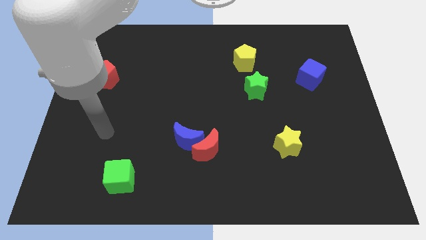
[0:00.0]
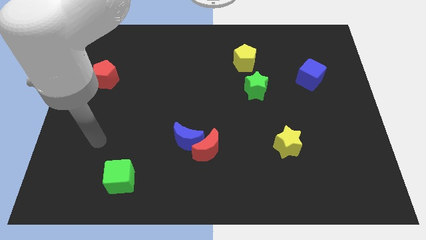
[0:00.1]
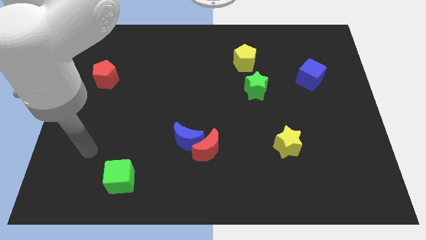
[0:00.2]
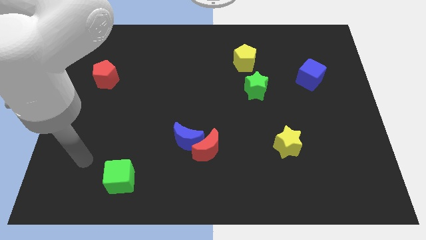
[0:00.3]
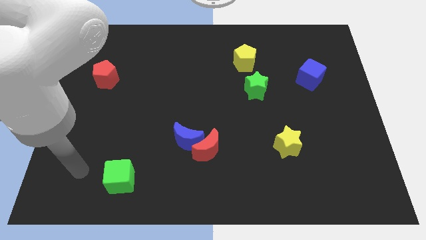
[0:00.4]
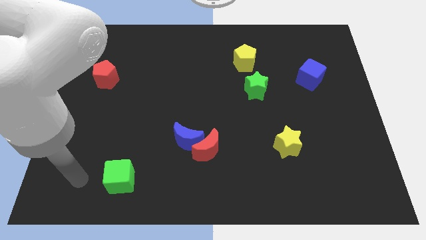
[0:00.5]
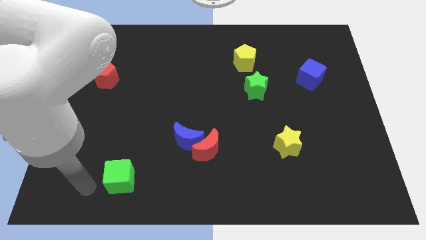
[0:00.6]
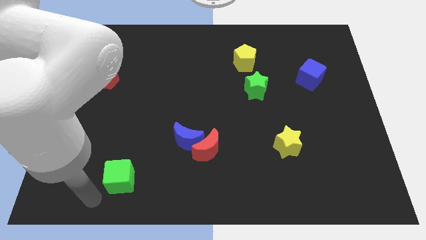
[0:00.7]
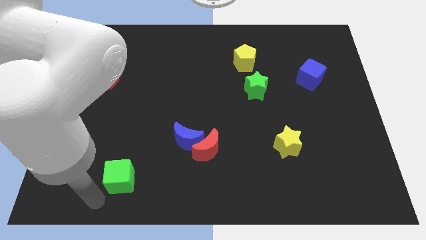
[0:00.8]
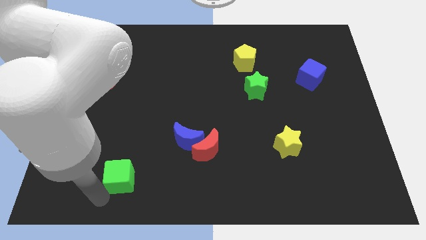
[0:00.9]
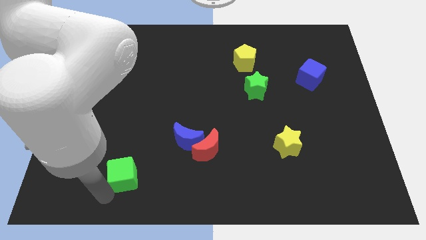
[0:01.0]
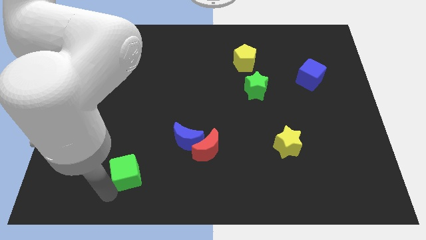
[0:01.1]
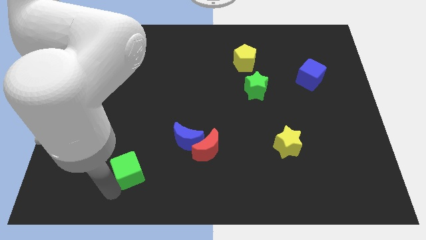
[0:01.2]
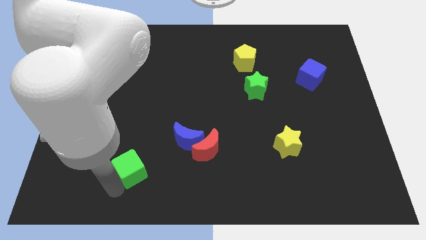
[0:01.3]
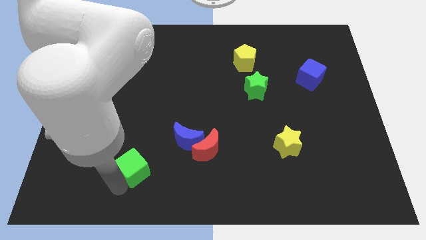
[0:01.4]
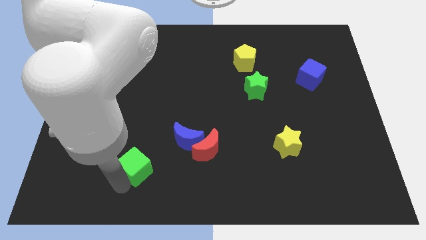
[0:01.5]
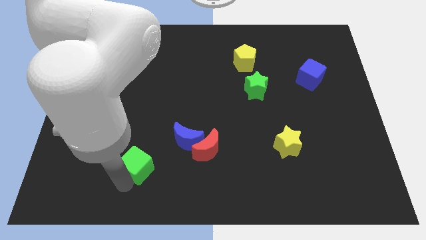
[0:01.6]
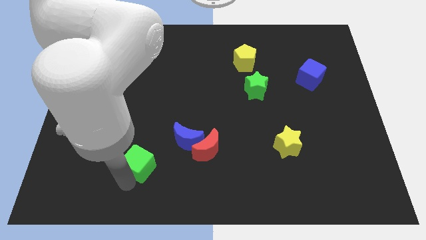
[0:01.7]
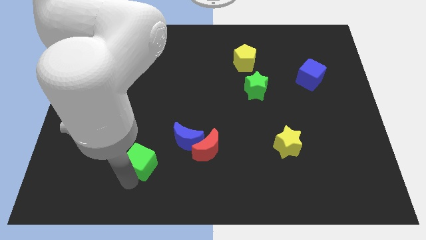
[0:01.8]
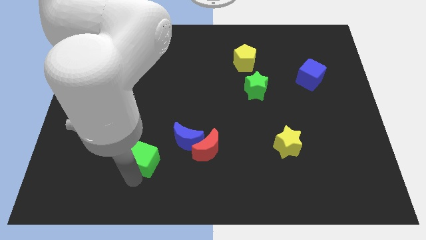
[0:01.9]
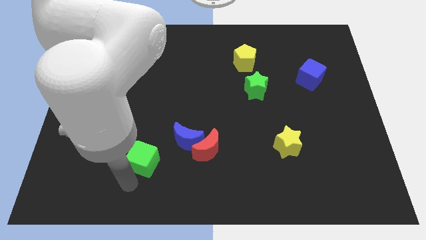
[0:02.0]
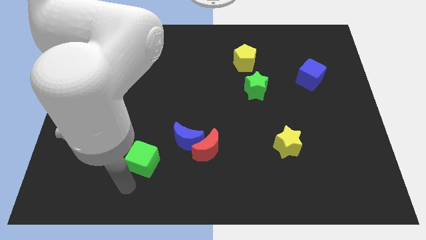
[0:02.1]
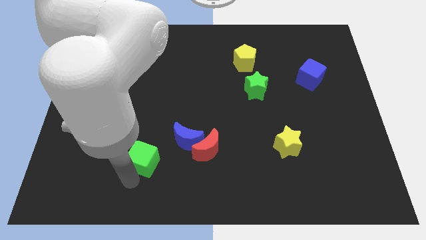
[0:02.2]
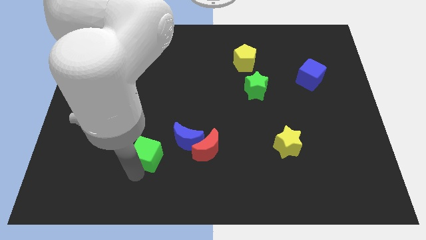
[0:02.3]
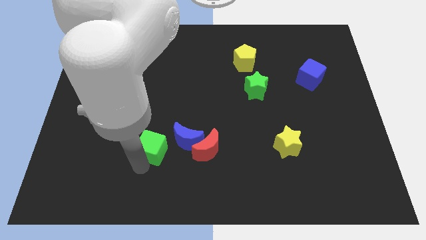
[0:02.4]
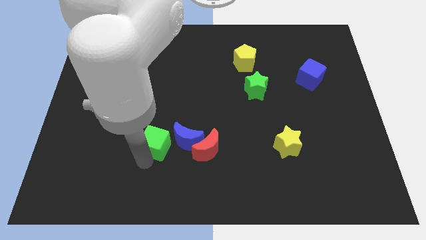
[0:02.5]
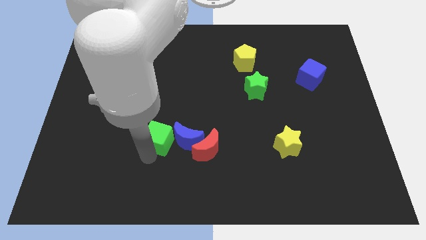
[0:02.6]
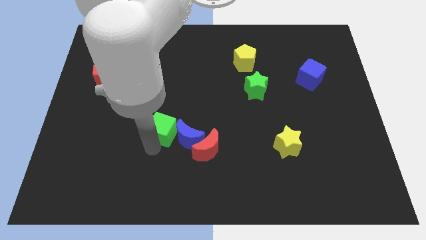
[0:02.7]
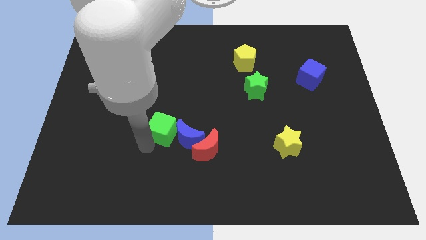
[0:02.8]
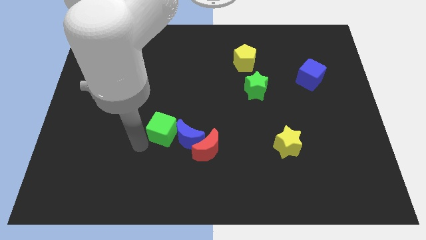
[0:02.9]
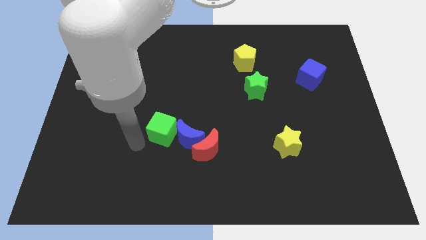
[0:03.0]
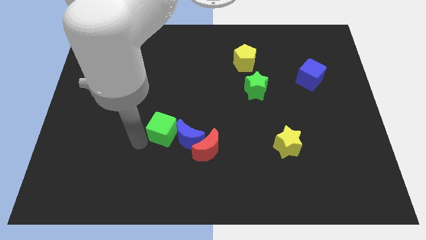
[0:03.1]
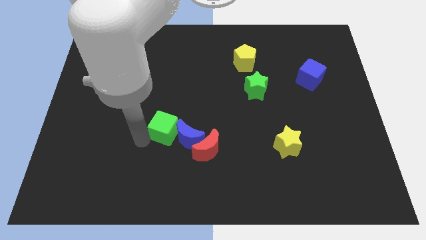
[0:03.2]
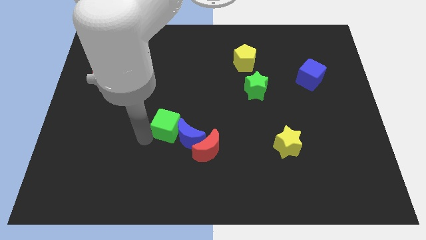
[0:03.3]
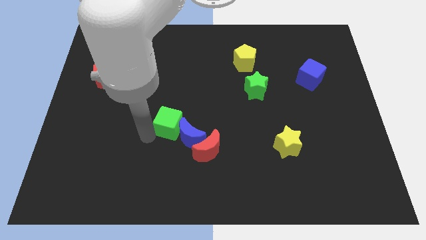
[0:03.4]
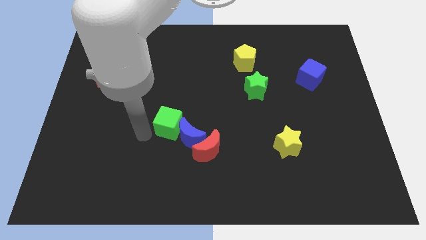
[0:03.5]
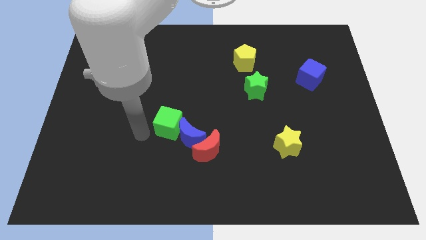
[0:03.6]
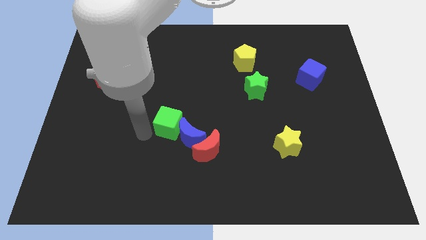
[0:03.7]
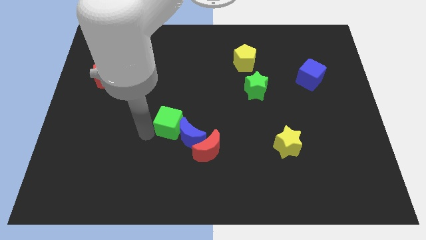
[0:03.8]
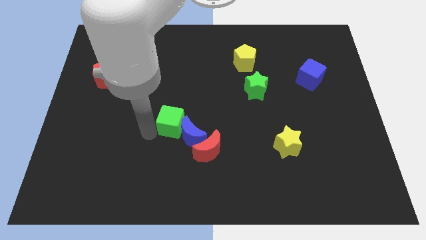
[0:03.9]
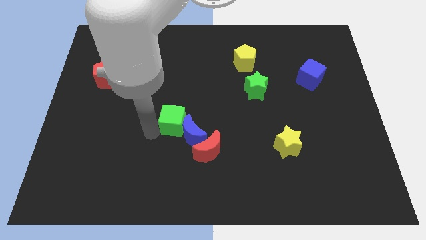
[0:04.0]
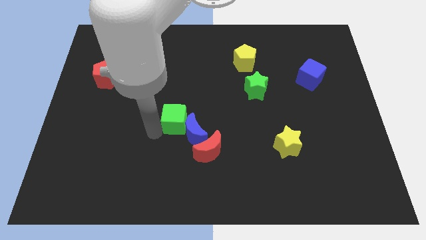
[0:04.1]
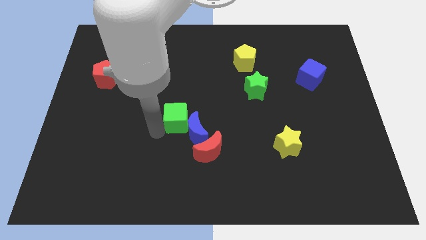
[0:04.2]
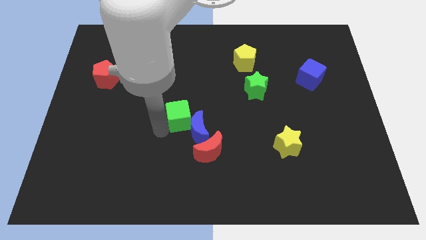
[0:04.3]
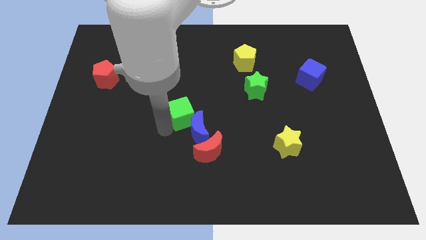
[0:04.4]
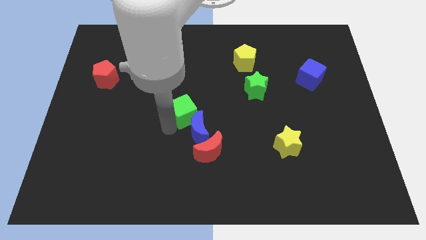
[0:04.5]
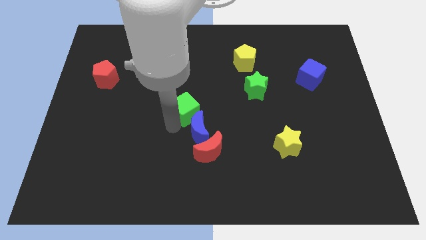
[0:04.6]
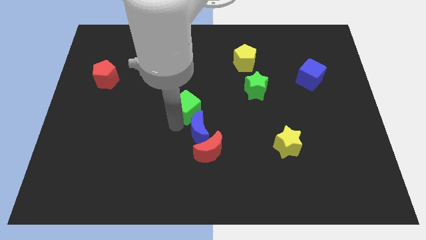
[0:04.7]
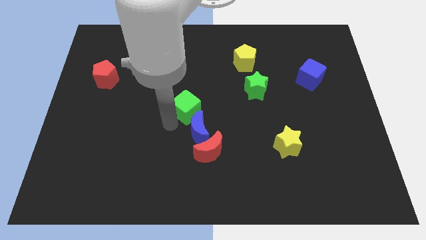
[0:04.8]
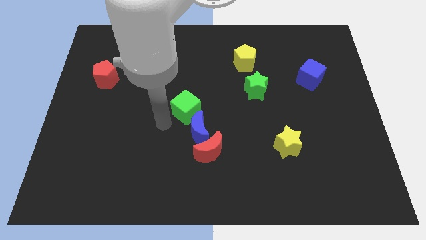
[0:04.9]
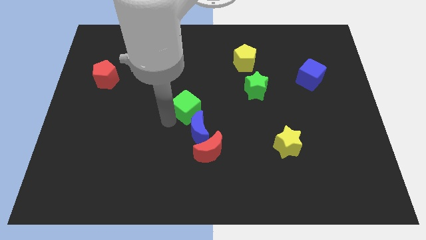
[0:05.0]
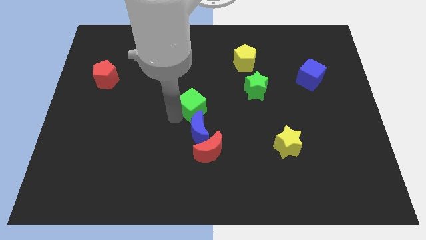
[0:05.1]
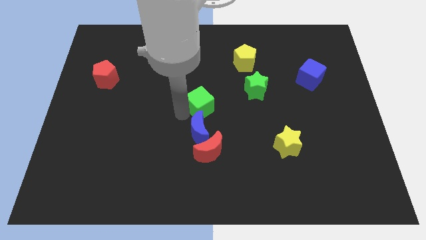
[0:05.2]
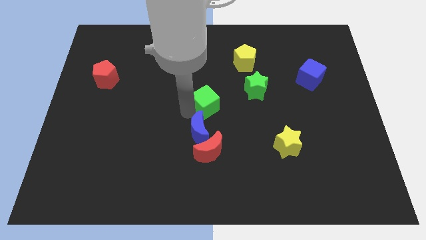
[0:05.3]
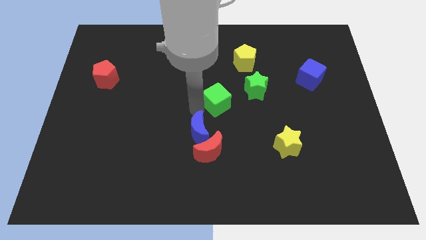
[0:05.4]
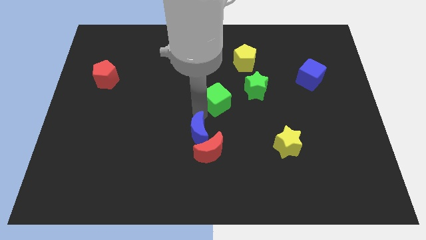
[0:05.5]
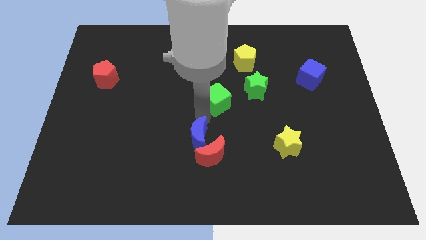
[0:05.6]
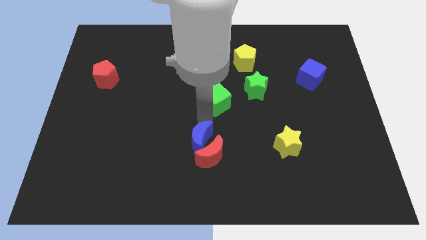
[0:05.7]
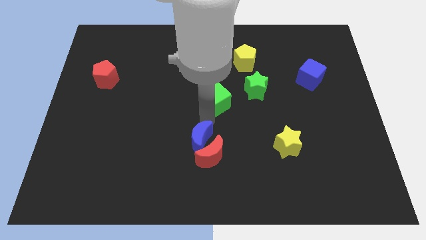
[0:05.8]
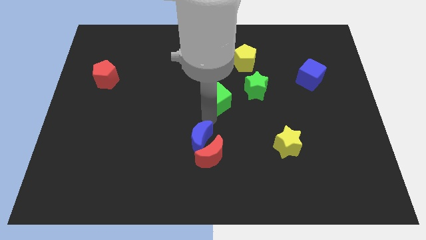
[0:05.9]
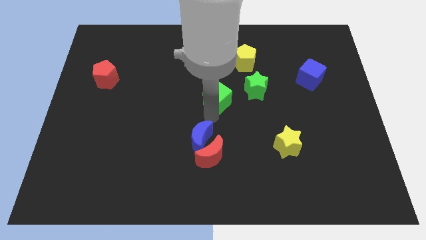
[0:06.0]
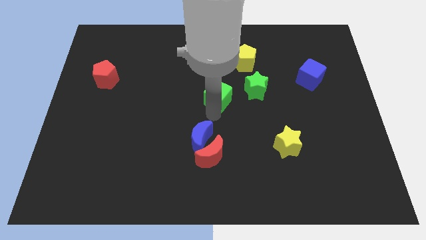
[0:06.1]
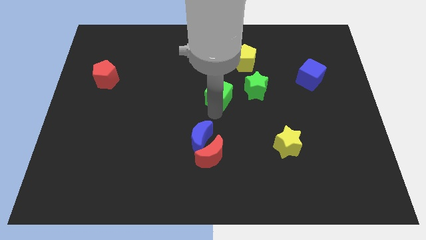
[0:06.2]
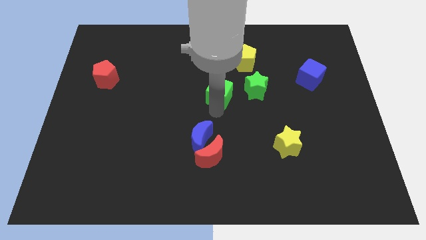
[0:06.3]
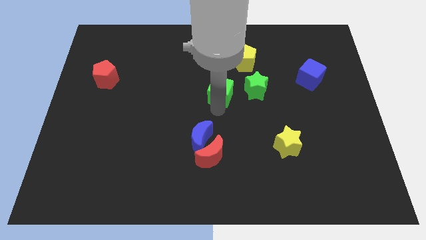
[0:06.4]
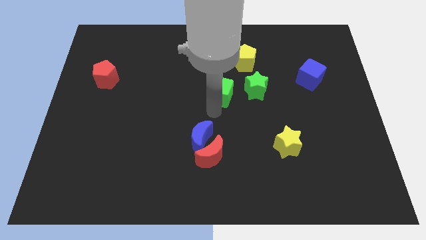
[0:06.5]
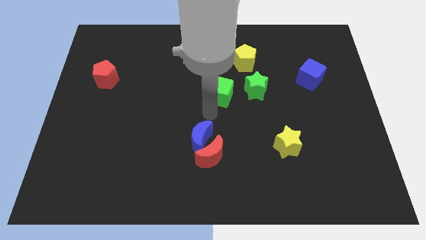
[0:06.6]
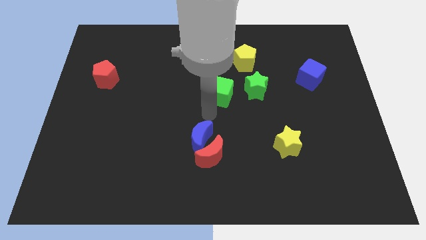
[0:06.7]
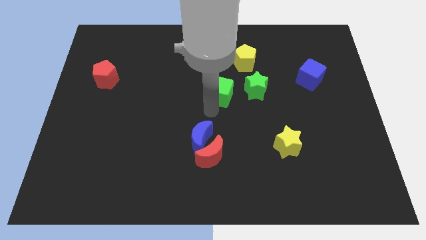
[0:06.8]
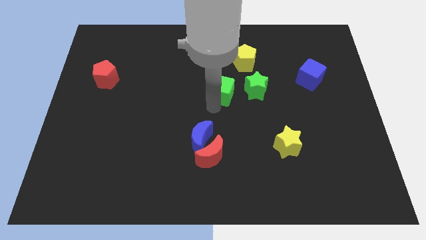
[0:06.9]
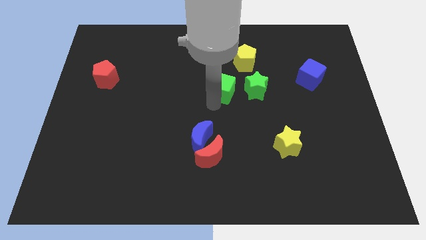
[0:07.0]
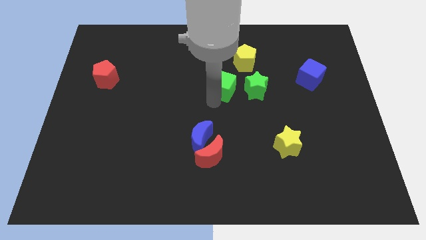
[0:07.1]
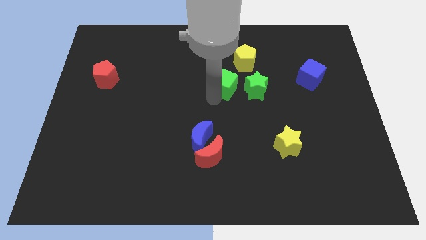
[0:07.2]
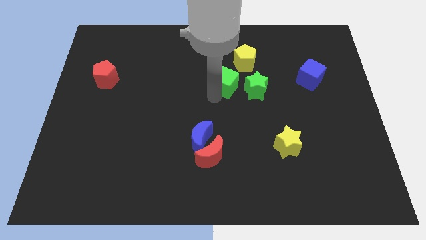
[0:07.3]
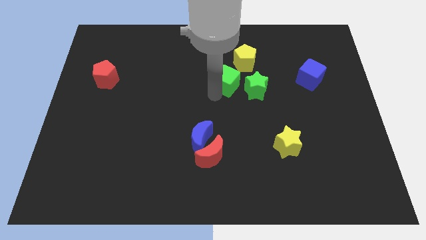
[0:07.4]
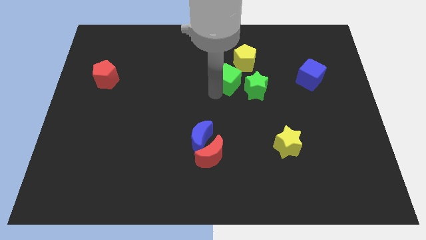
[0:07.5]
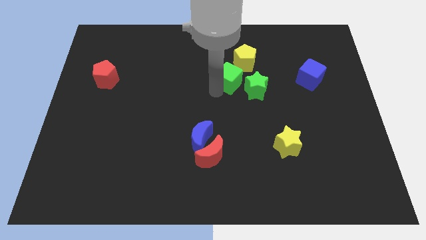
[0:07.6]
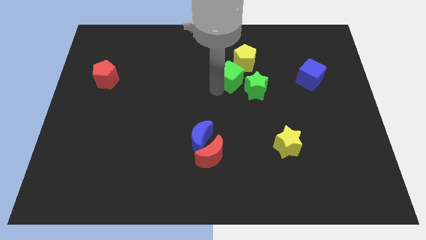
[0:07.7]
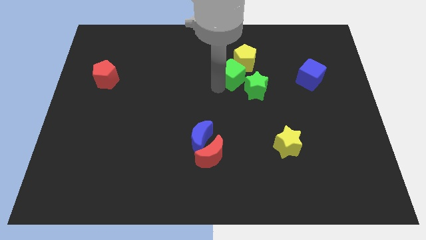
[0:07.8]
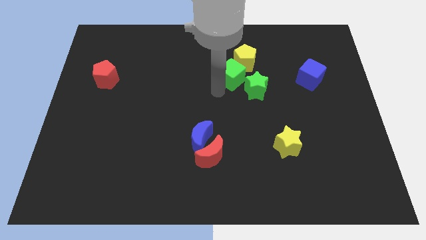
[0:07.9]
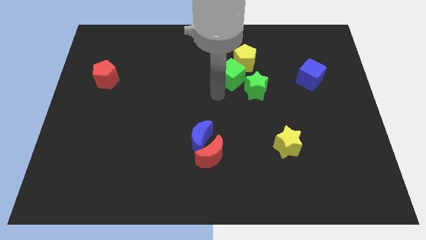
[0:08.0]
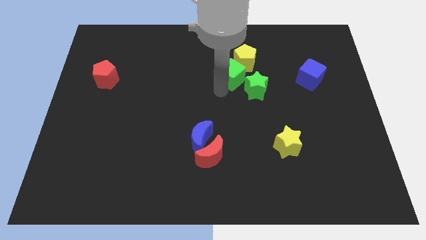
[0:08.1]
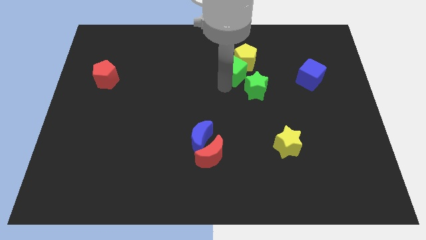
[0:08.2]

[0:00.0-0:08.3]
put the green cube close to the yellow pentagon
